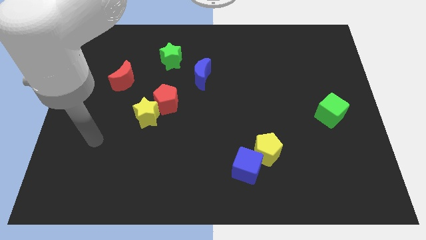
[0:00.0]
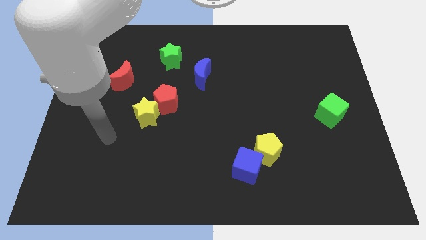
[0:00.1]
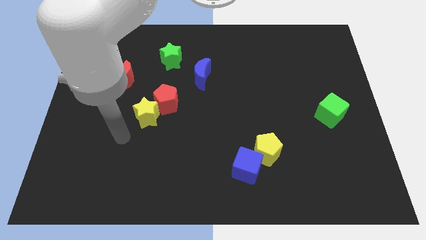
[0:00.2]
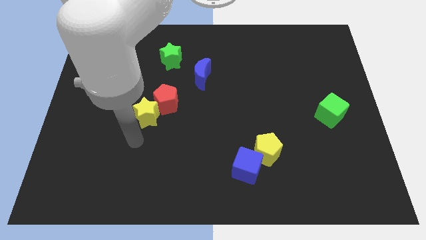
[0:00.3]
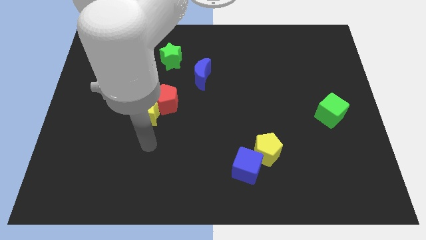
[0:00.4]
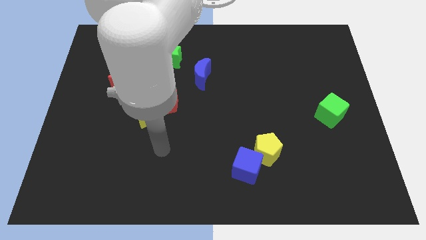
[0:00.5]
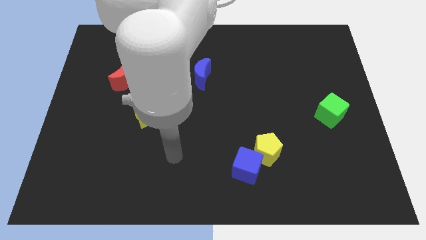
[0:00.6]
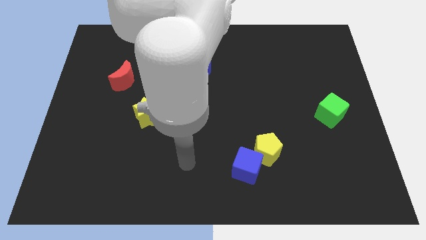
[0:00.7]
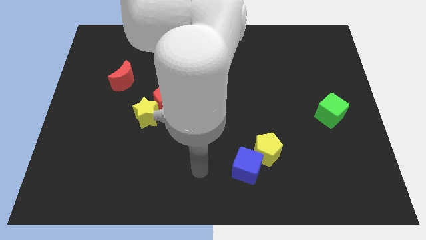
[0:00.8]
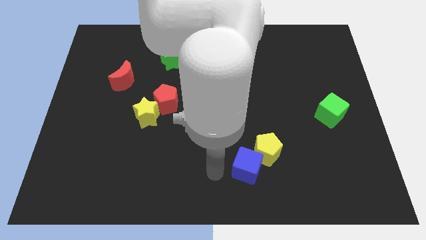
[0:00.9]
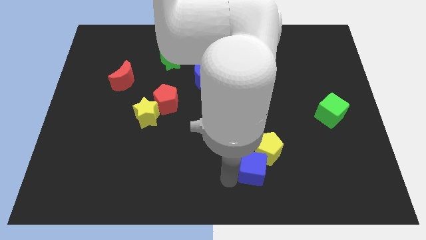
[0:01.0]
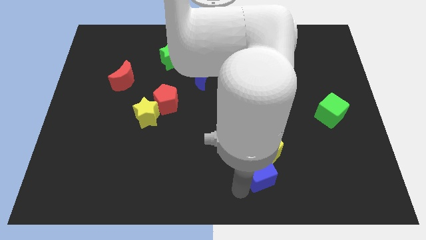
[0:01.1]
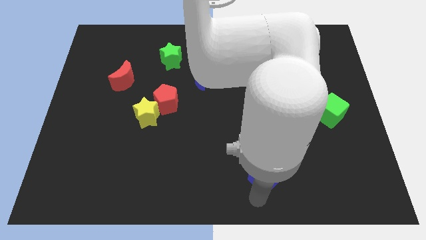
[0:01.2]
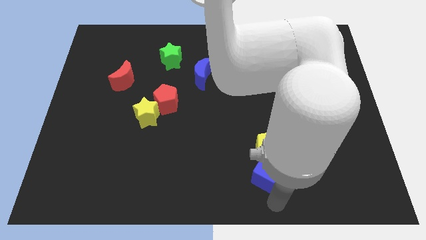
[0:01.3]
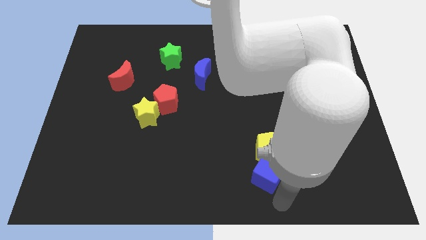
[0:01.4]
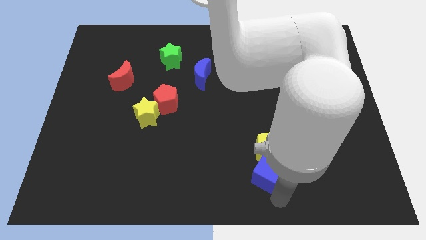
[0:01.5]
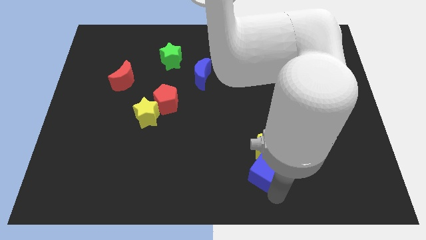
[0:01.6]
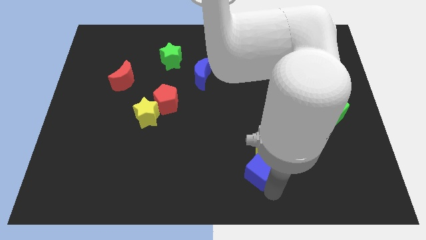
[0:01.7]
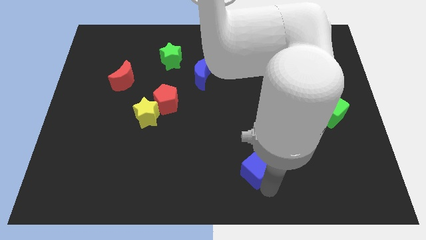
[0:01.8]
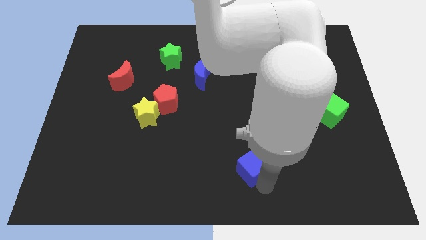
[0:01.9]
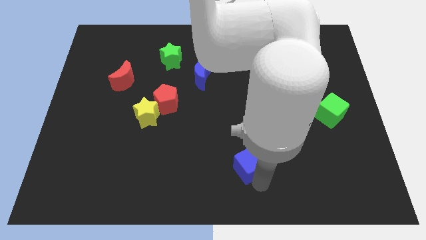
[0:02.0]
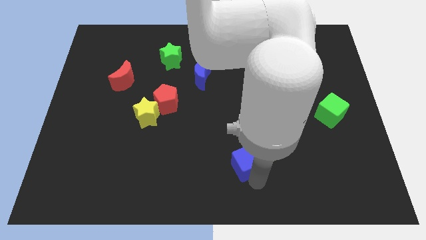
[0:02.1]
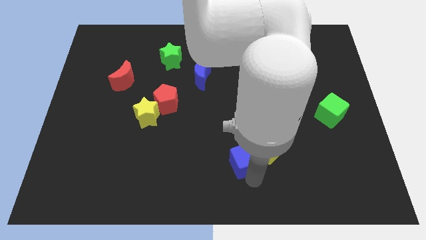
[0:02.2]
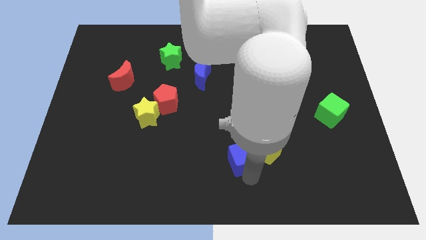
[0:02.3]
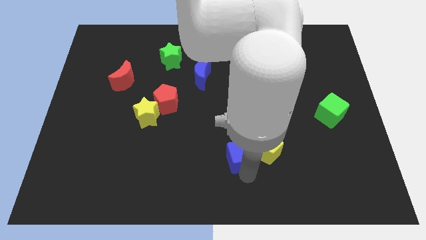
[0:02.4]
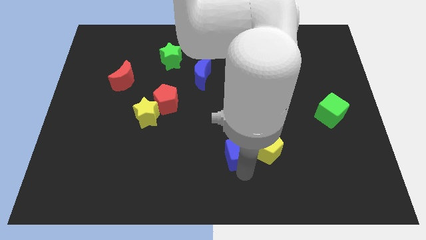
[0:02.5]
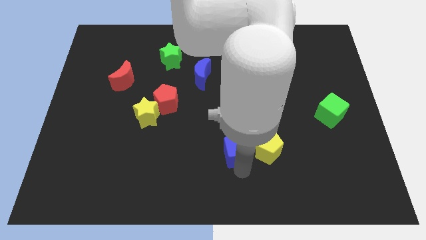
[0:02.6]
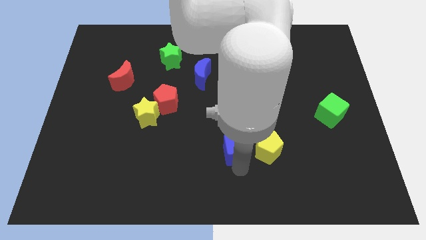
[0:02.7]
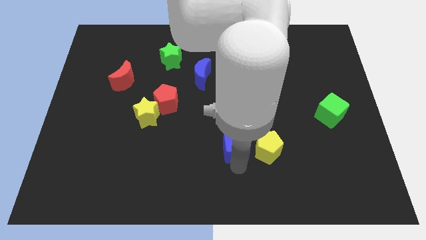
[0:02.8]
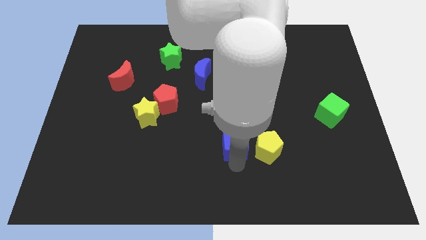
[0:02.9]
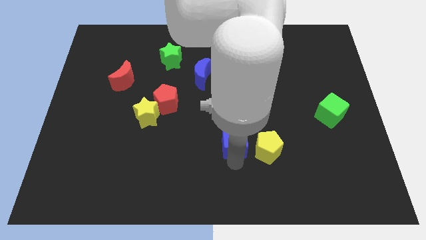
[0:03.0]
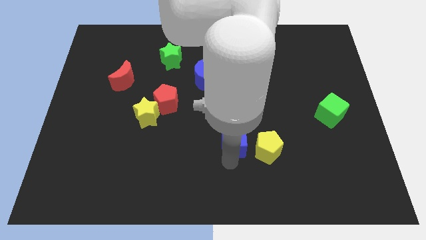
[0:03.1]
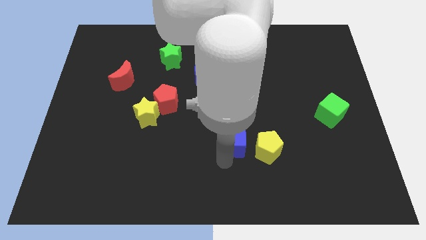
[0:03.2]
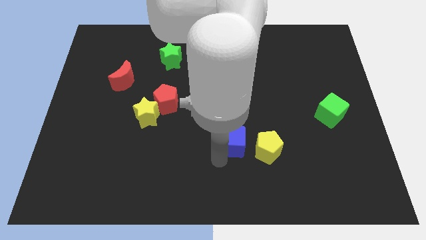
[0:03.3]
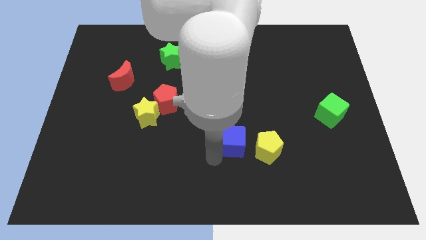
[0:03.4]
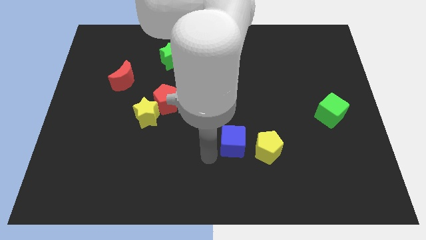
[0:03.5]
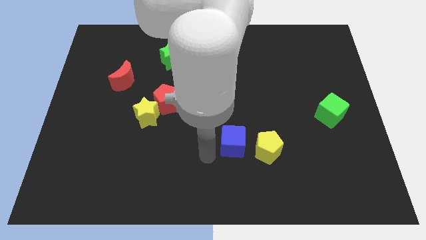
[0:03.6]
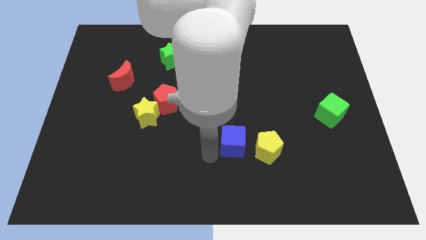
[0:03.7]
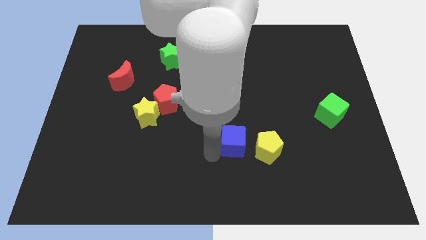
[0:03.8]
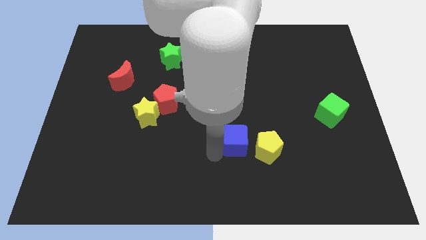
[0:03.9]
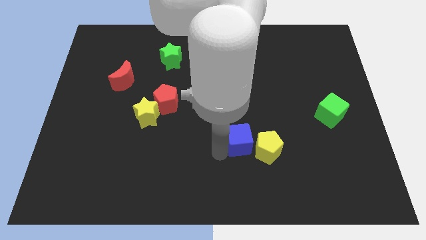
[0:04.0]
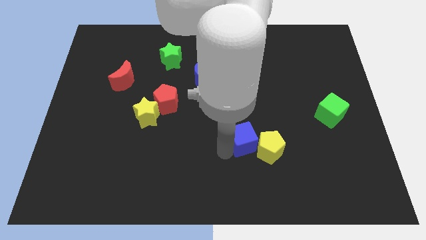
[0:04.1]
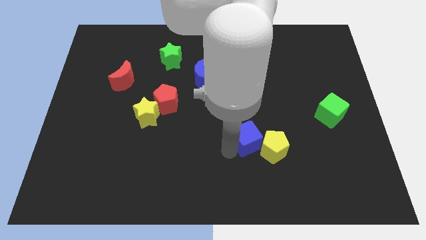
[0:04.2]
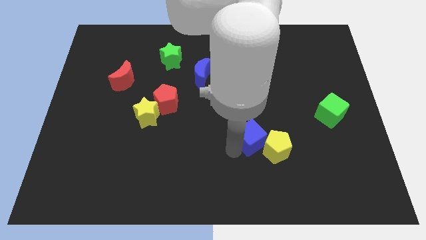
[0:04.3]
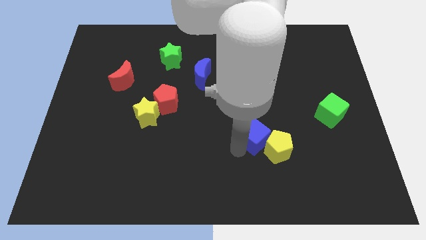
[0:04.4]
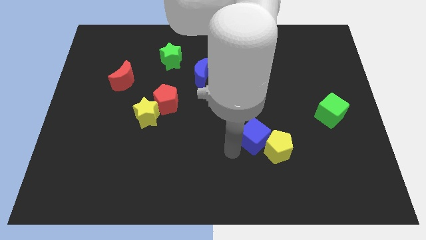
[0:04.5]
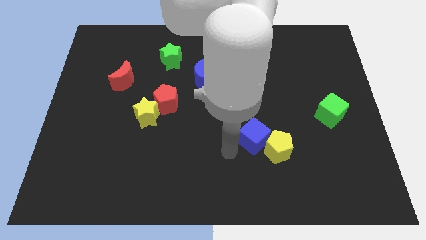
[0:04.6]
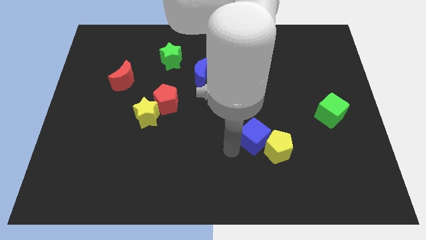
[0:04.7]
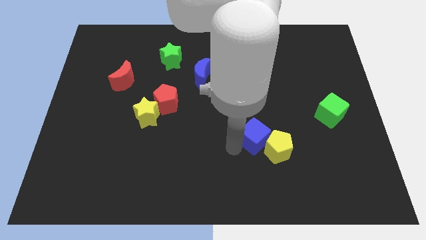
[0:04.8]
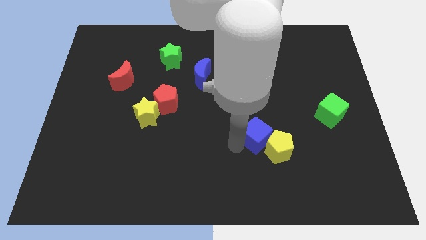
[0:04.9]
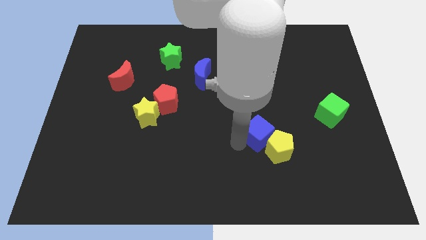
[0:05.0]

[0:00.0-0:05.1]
slightly push the blue cube diagonally upwards and right

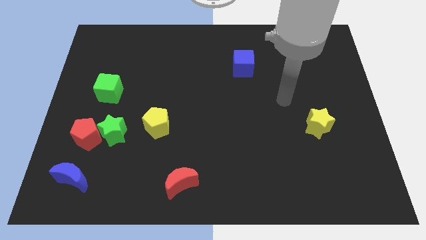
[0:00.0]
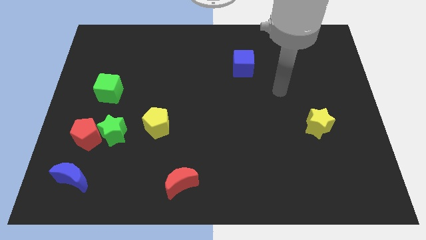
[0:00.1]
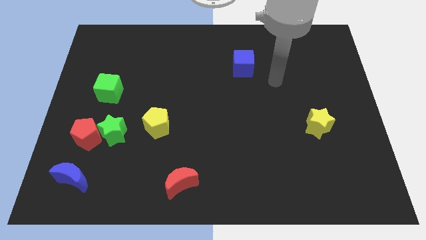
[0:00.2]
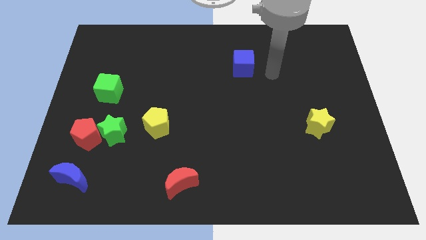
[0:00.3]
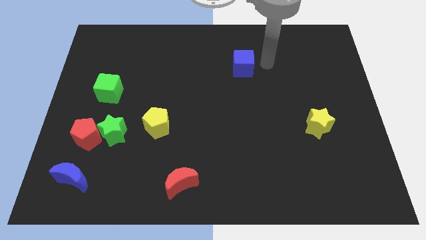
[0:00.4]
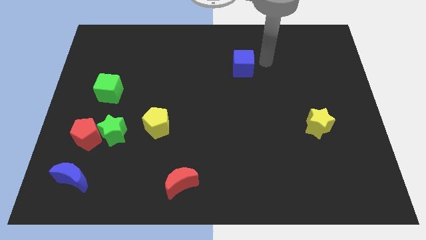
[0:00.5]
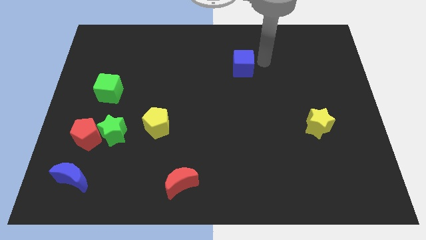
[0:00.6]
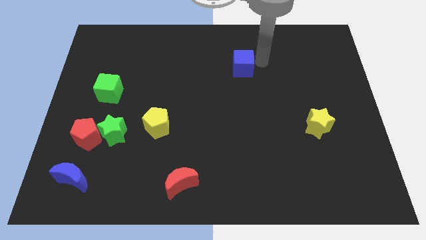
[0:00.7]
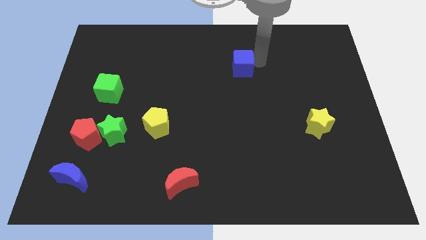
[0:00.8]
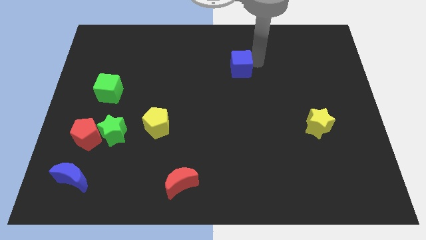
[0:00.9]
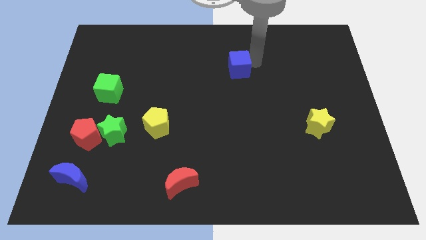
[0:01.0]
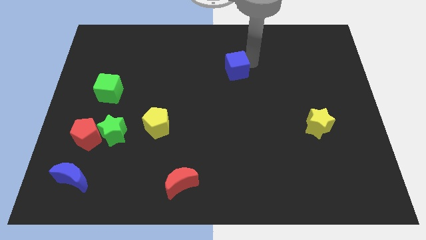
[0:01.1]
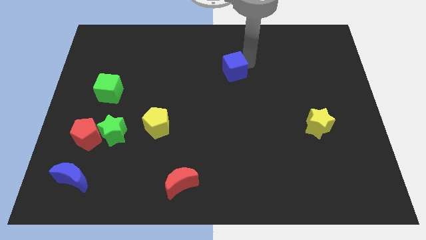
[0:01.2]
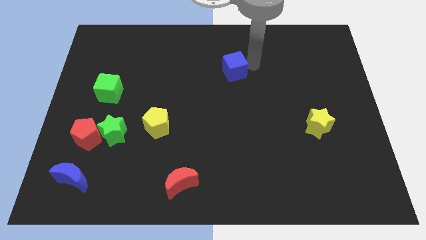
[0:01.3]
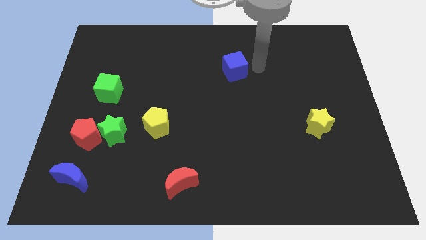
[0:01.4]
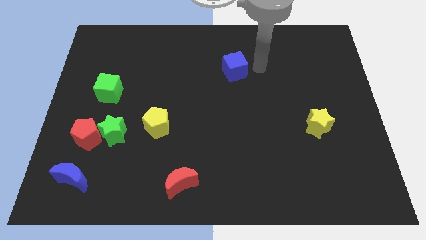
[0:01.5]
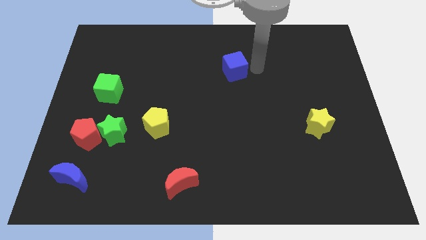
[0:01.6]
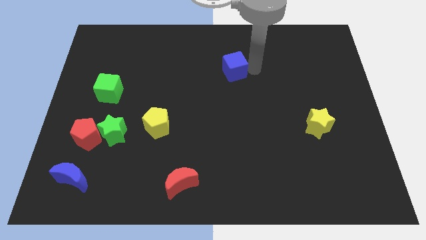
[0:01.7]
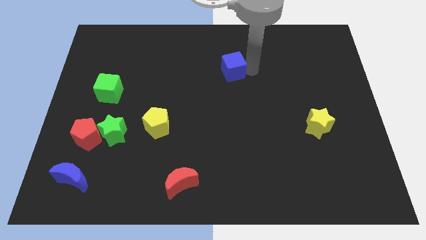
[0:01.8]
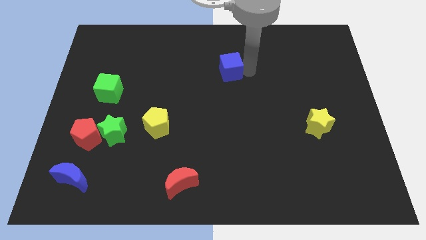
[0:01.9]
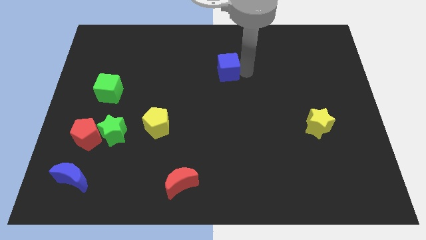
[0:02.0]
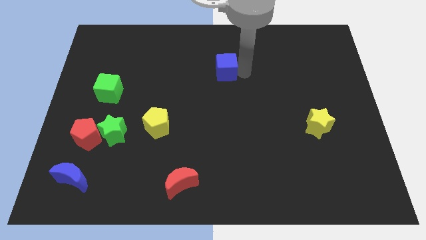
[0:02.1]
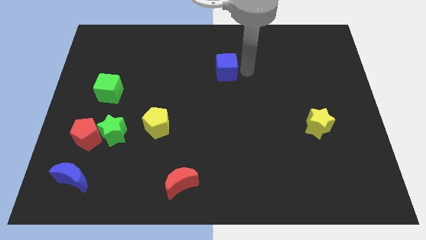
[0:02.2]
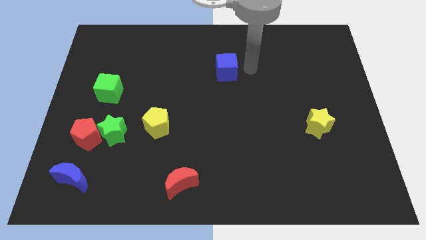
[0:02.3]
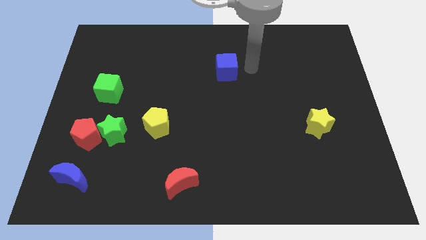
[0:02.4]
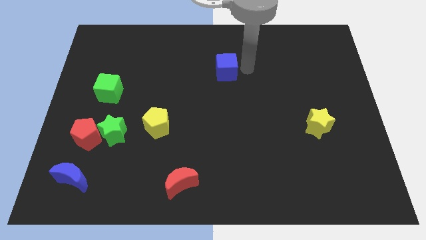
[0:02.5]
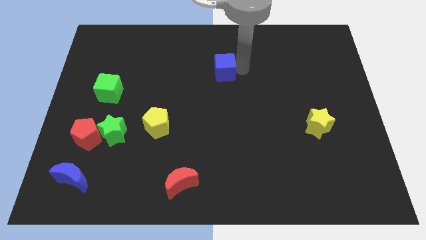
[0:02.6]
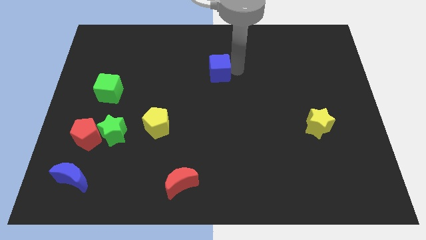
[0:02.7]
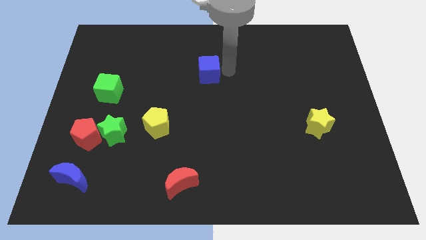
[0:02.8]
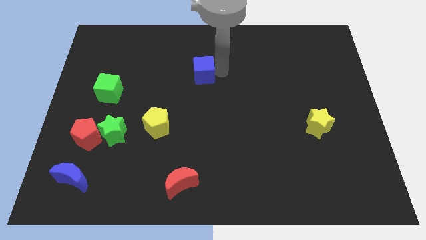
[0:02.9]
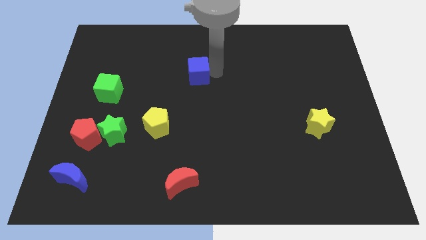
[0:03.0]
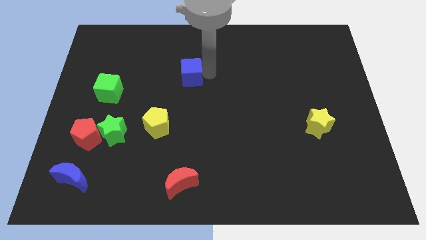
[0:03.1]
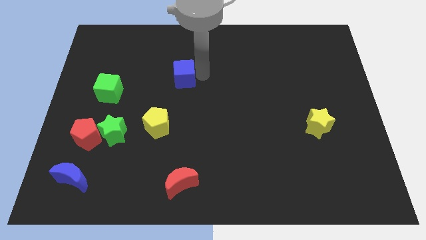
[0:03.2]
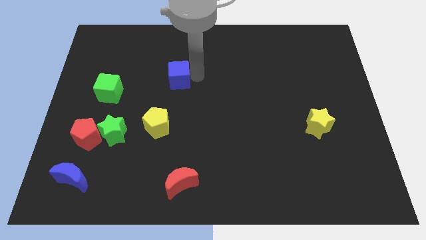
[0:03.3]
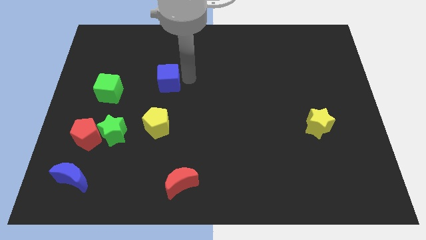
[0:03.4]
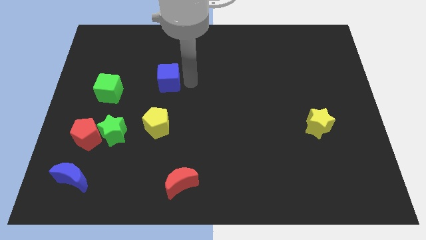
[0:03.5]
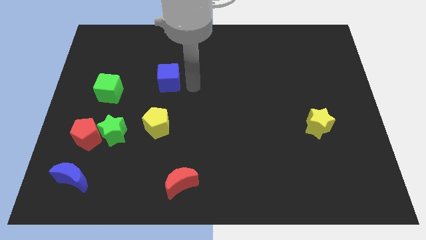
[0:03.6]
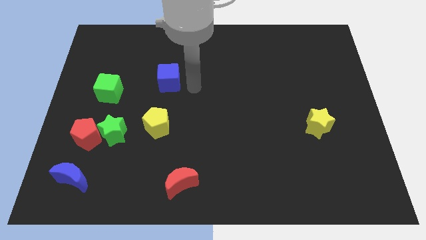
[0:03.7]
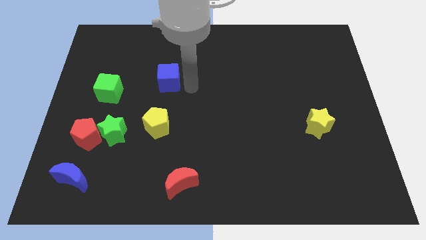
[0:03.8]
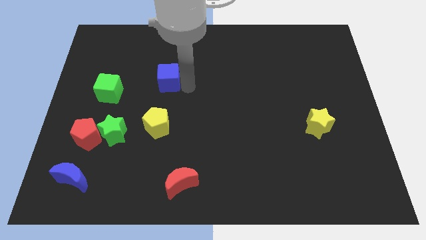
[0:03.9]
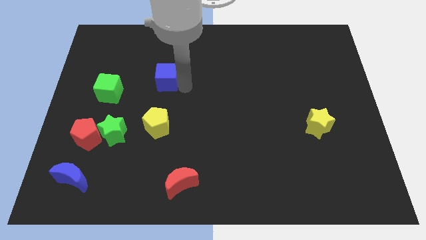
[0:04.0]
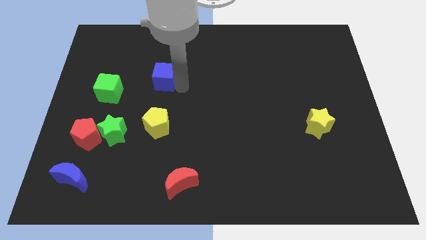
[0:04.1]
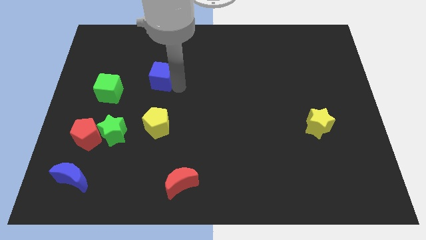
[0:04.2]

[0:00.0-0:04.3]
move the blue cube to the left
